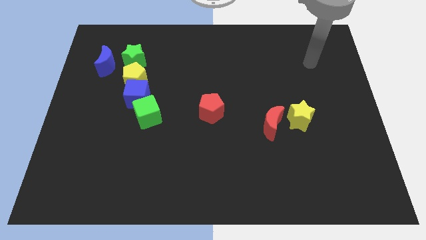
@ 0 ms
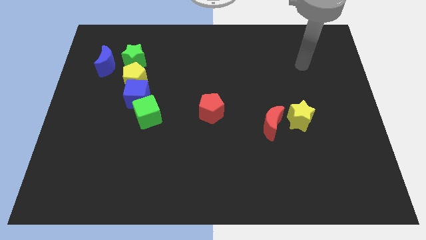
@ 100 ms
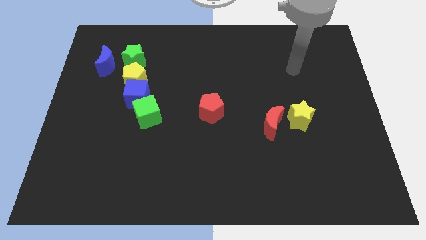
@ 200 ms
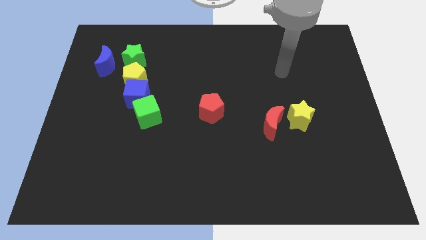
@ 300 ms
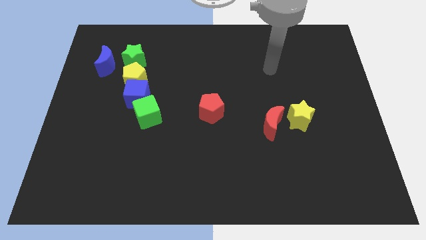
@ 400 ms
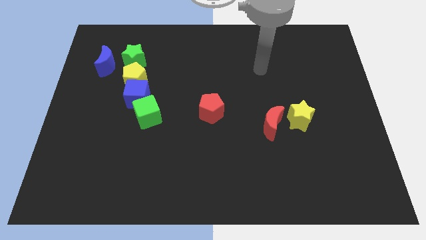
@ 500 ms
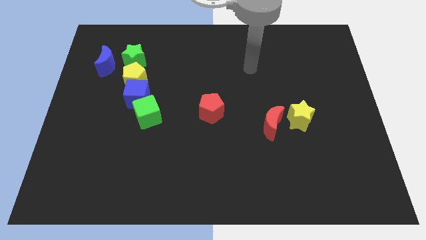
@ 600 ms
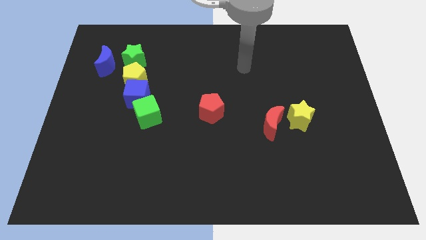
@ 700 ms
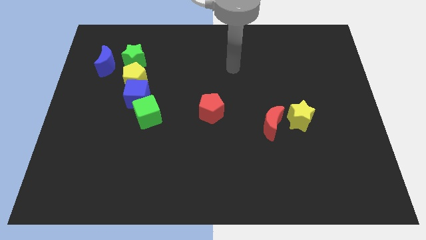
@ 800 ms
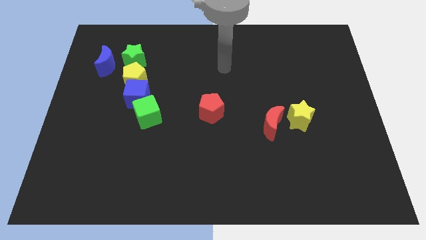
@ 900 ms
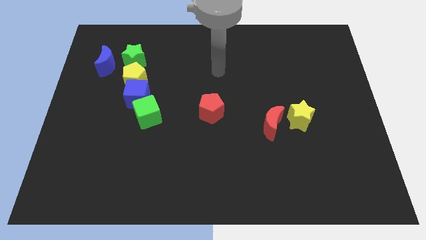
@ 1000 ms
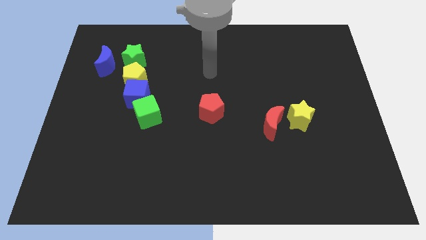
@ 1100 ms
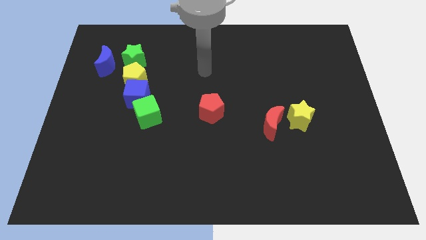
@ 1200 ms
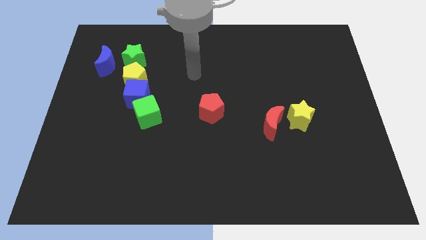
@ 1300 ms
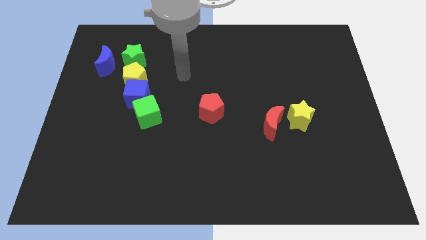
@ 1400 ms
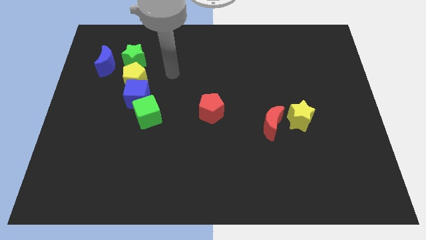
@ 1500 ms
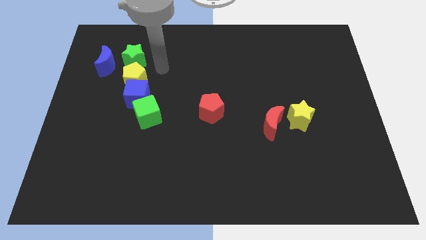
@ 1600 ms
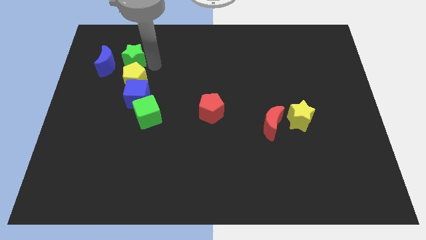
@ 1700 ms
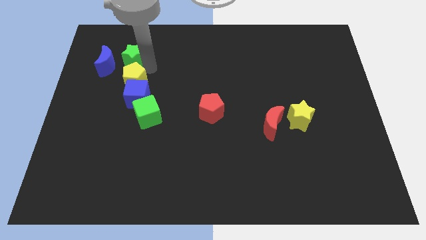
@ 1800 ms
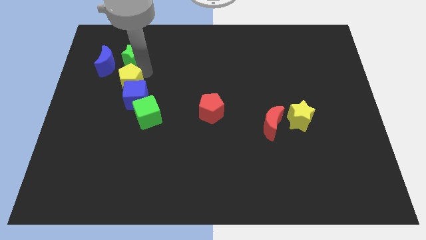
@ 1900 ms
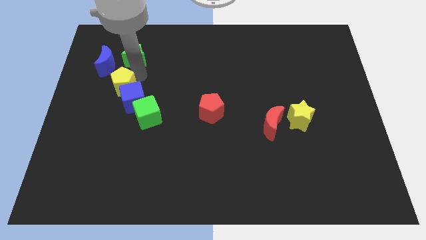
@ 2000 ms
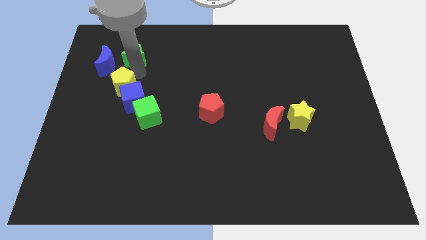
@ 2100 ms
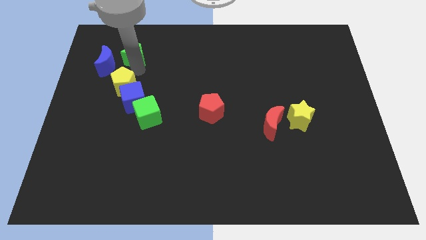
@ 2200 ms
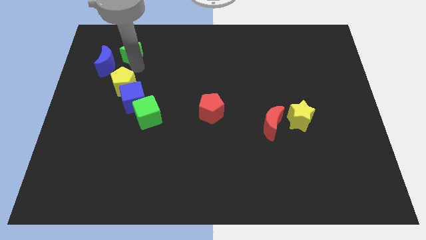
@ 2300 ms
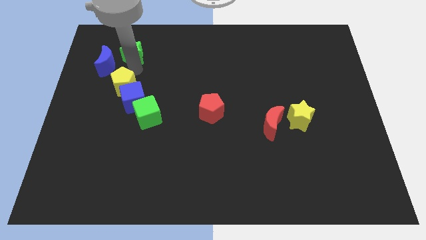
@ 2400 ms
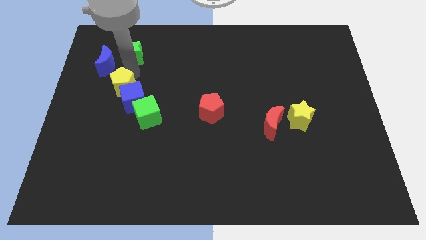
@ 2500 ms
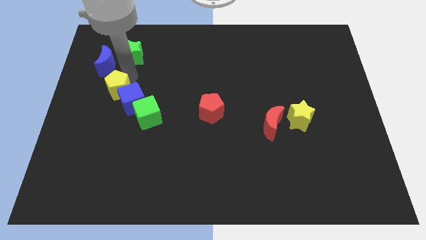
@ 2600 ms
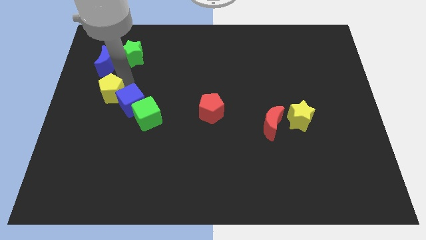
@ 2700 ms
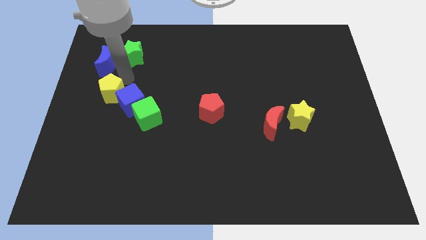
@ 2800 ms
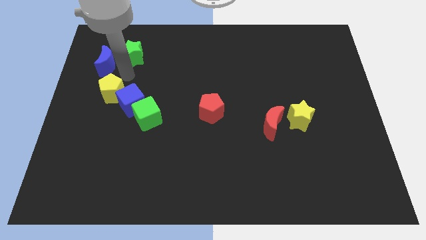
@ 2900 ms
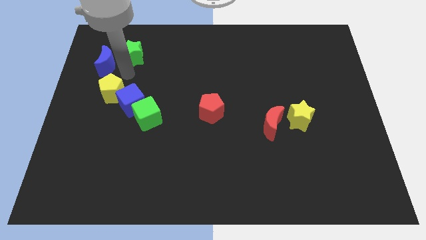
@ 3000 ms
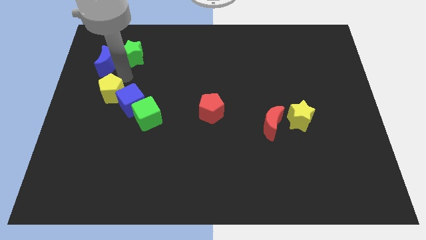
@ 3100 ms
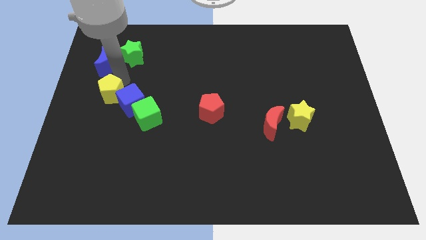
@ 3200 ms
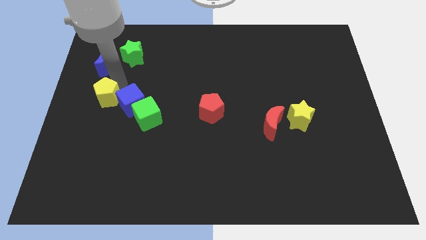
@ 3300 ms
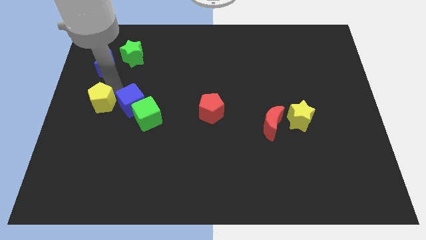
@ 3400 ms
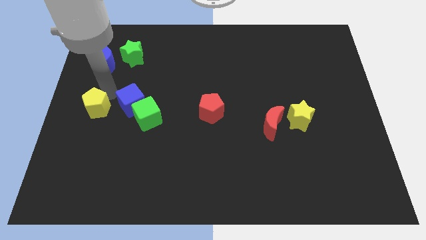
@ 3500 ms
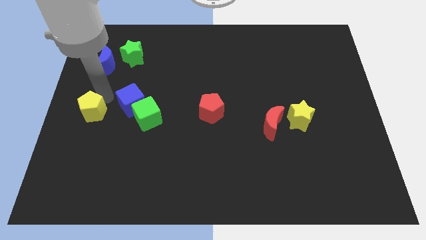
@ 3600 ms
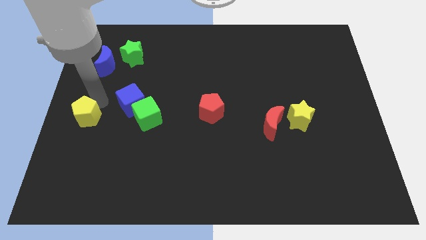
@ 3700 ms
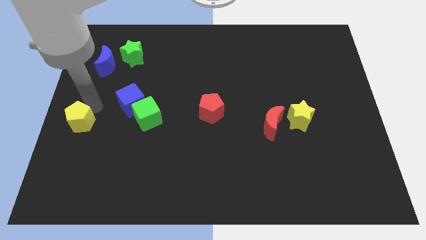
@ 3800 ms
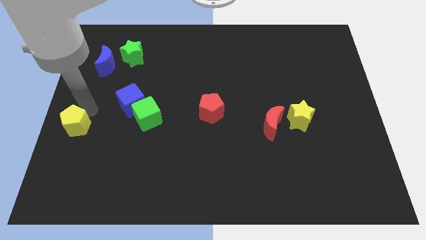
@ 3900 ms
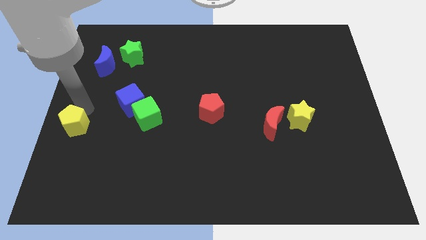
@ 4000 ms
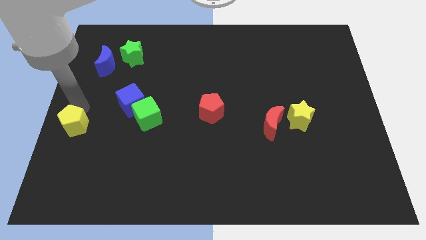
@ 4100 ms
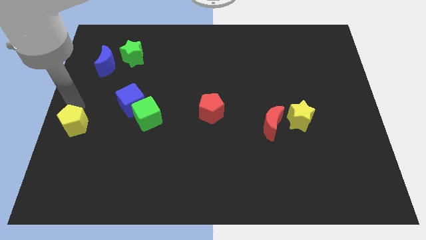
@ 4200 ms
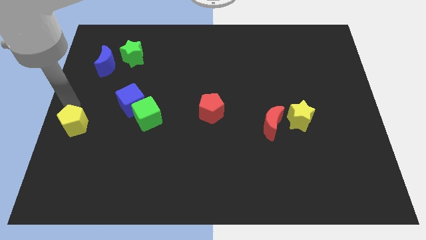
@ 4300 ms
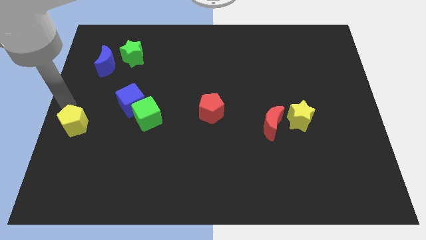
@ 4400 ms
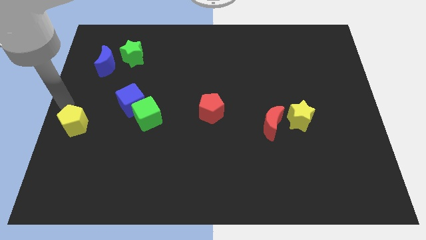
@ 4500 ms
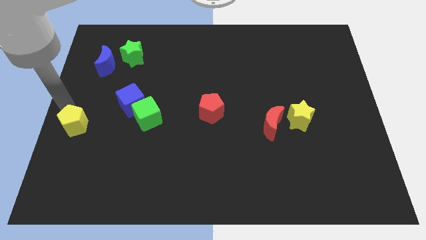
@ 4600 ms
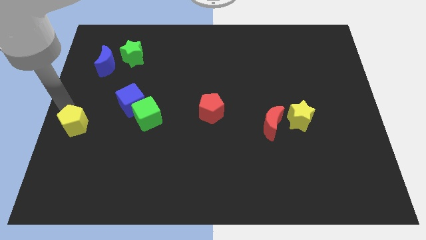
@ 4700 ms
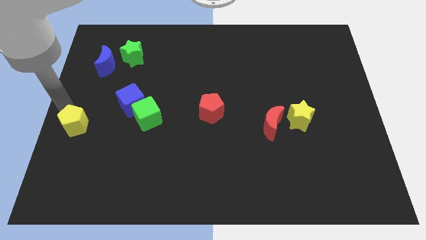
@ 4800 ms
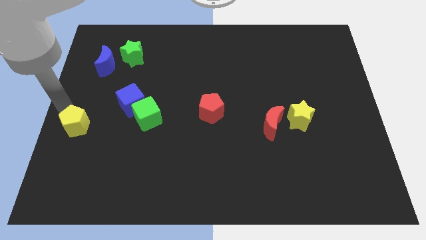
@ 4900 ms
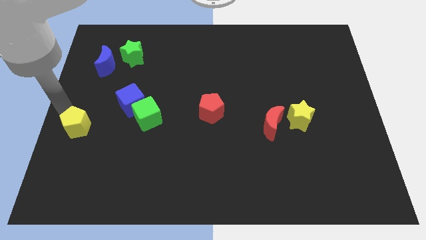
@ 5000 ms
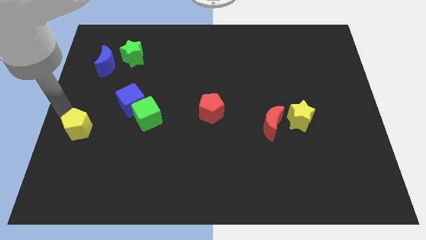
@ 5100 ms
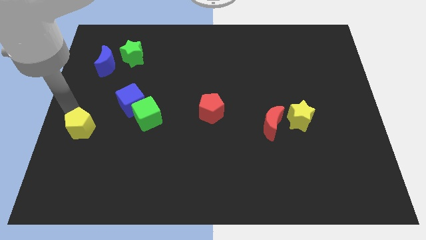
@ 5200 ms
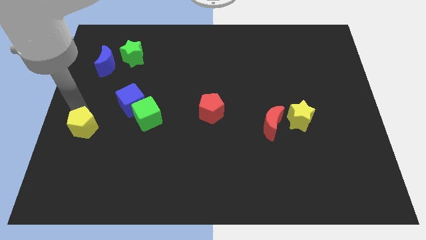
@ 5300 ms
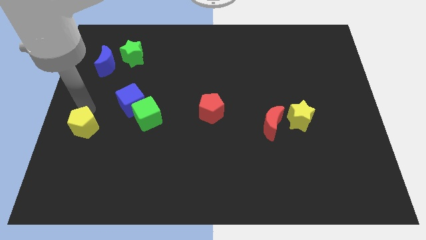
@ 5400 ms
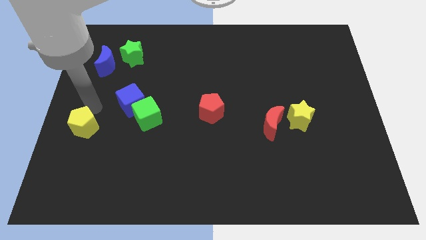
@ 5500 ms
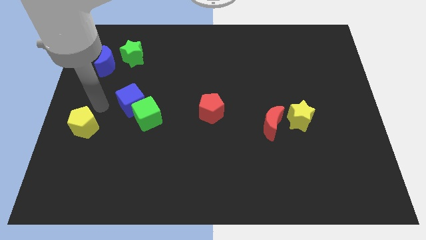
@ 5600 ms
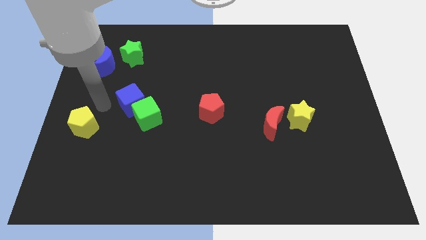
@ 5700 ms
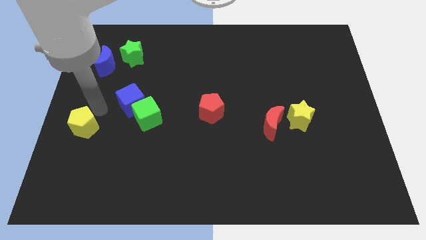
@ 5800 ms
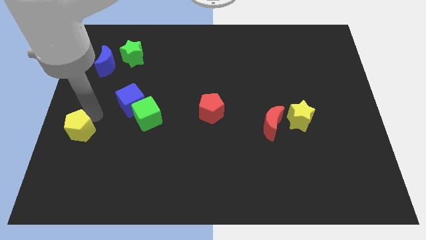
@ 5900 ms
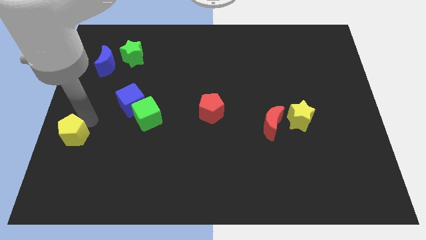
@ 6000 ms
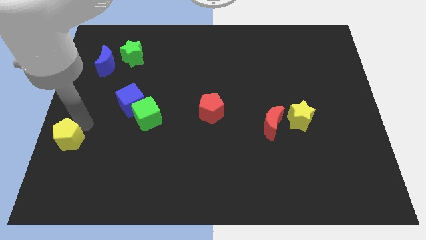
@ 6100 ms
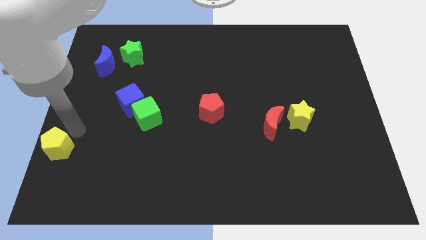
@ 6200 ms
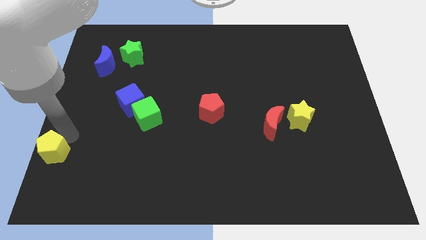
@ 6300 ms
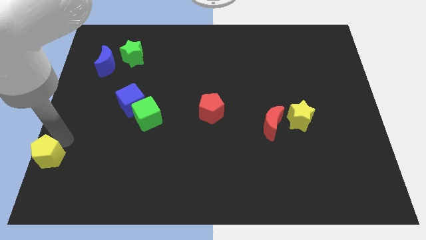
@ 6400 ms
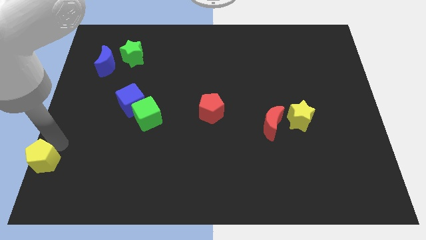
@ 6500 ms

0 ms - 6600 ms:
slide the yellow pentagon to the lower left corner
